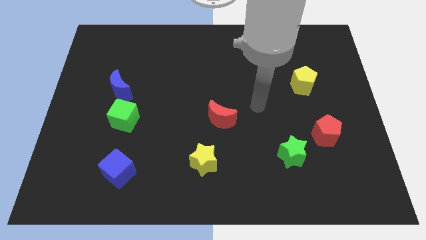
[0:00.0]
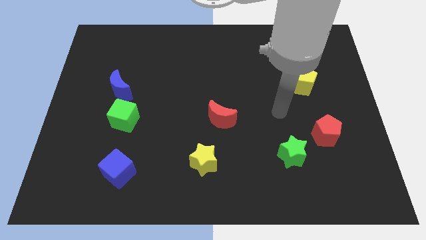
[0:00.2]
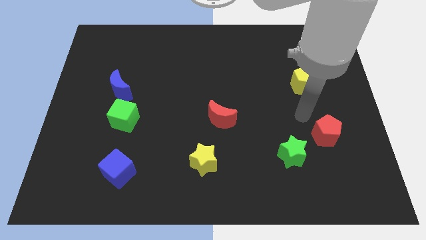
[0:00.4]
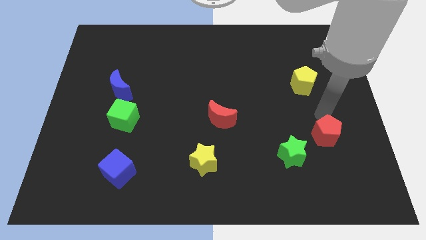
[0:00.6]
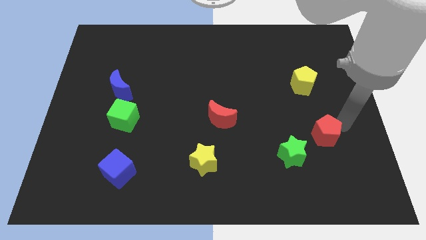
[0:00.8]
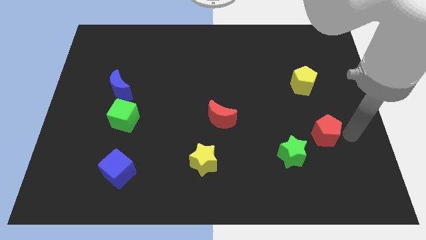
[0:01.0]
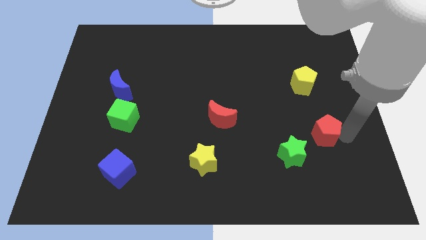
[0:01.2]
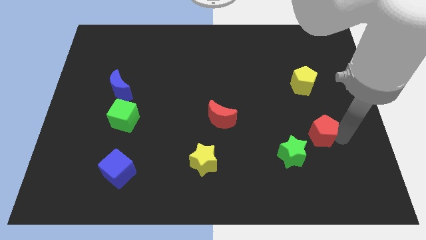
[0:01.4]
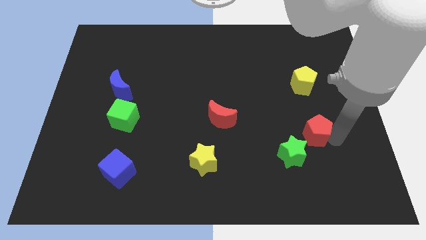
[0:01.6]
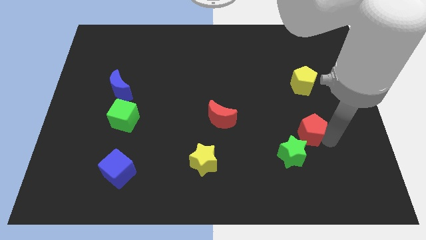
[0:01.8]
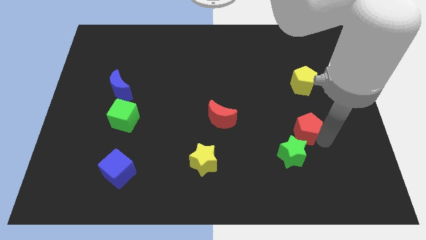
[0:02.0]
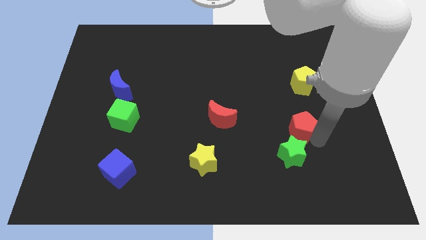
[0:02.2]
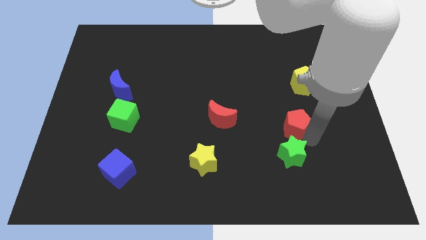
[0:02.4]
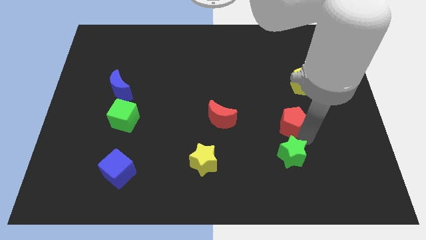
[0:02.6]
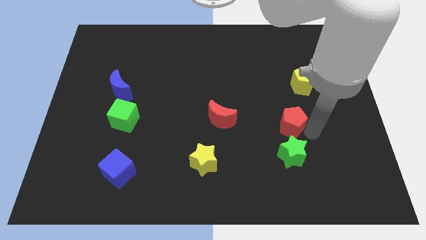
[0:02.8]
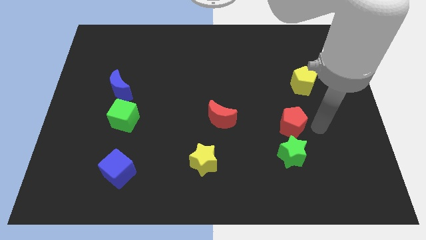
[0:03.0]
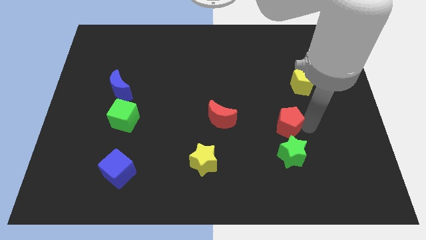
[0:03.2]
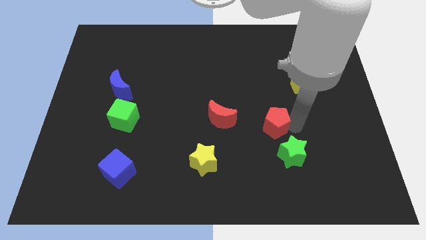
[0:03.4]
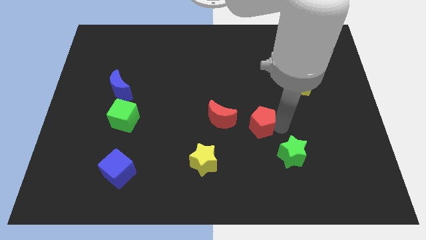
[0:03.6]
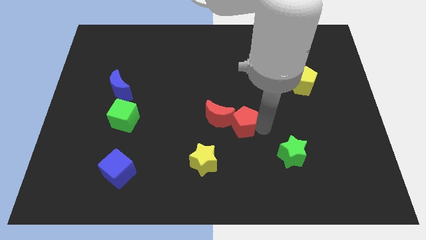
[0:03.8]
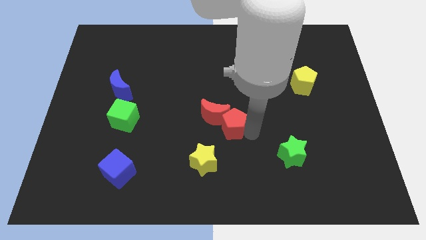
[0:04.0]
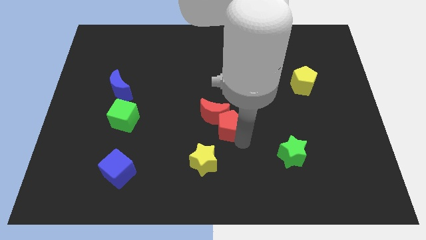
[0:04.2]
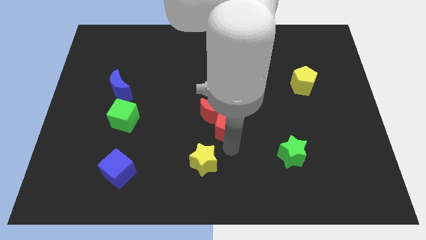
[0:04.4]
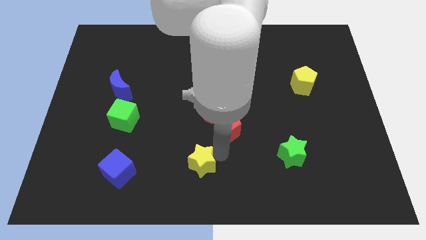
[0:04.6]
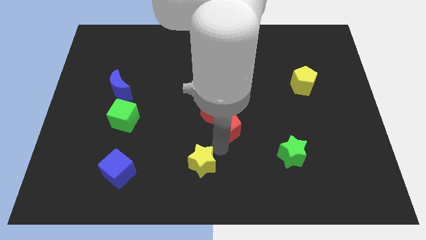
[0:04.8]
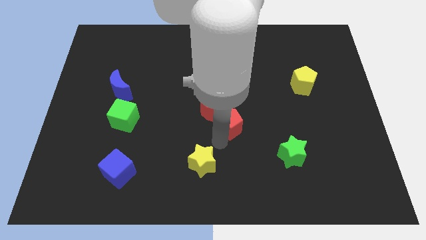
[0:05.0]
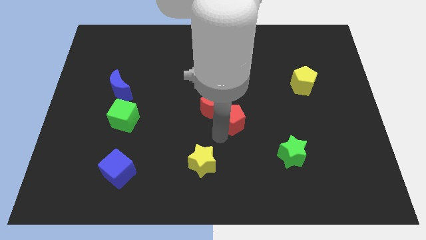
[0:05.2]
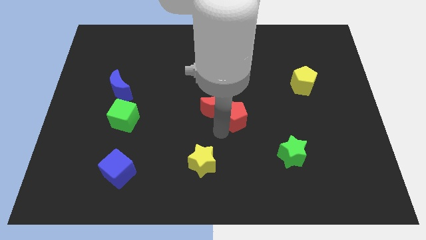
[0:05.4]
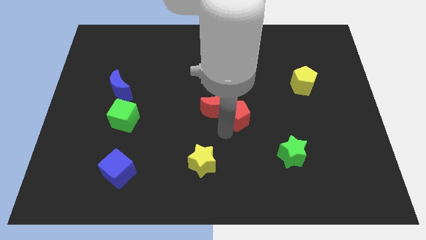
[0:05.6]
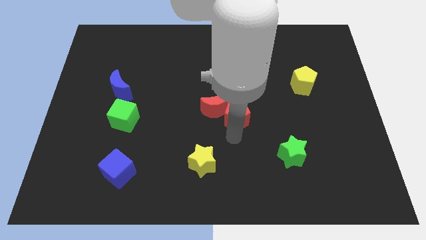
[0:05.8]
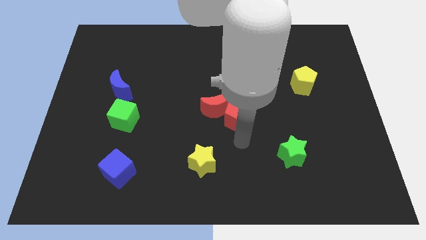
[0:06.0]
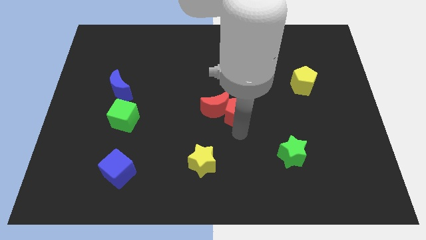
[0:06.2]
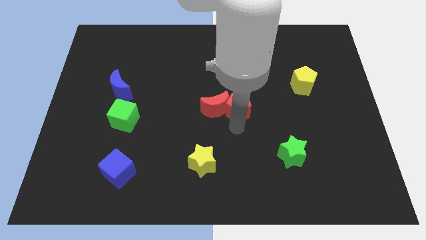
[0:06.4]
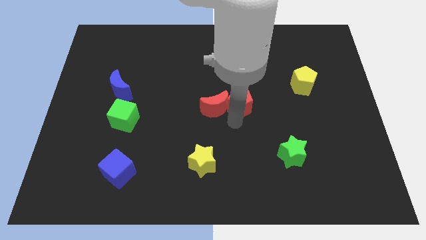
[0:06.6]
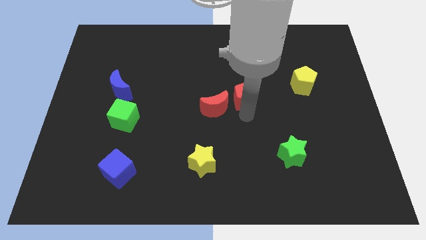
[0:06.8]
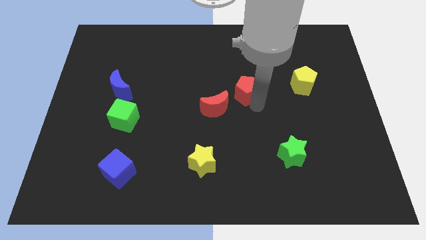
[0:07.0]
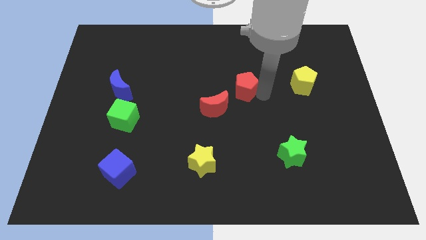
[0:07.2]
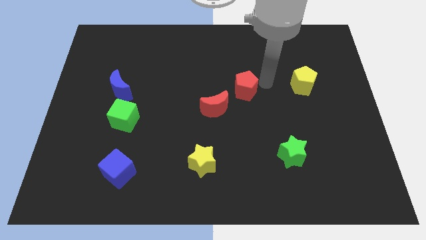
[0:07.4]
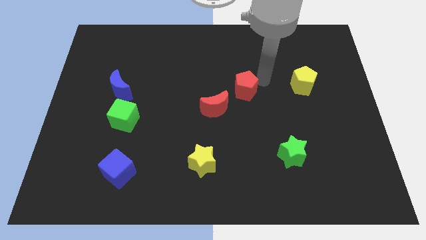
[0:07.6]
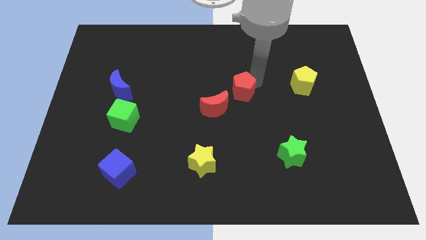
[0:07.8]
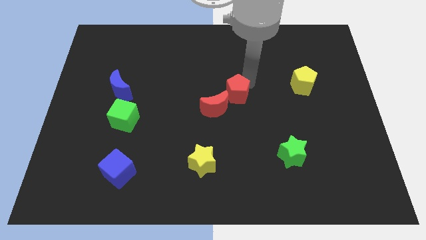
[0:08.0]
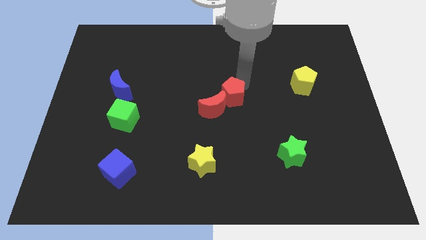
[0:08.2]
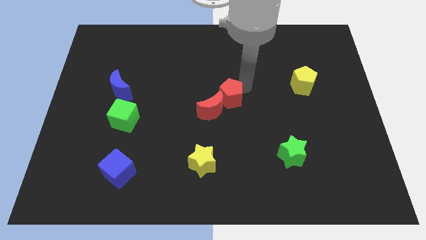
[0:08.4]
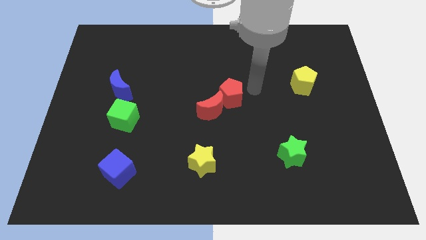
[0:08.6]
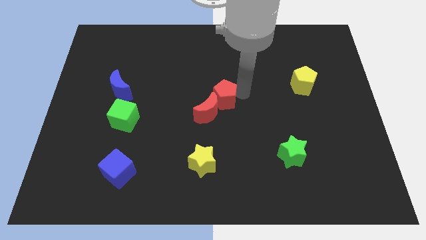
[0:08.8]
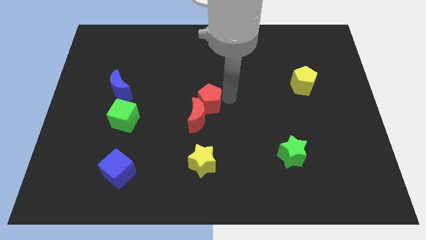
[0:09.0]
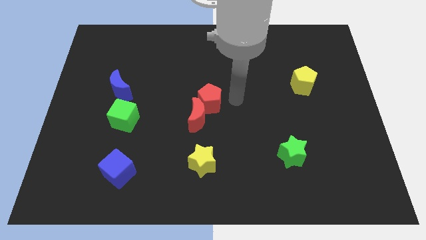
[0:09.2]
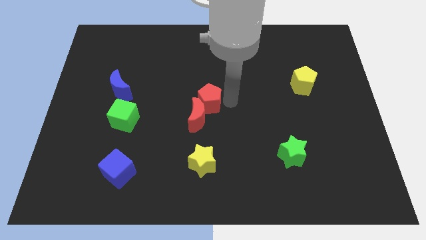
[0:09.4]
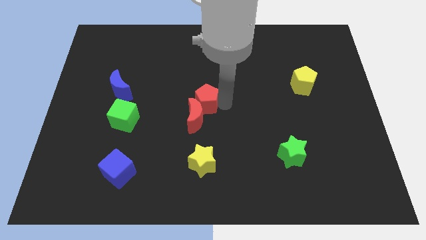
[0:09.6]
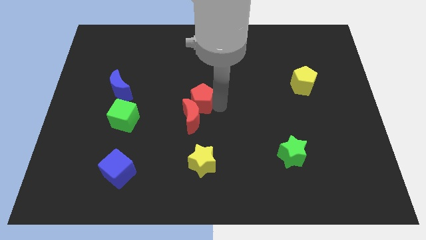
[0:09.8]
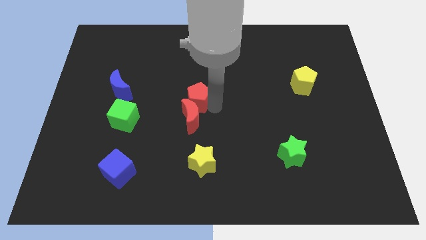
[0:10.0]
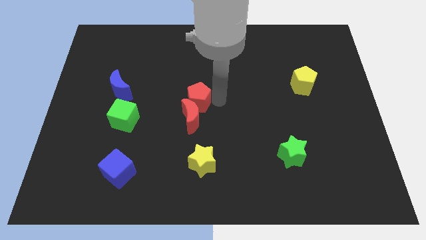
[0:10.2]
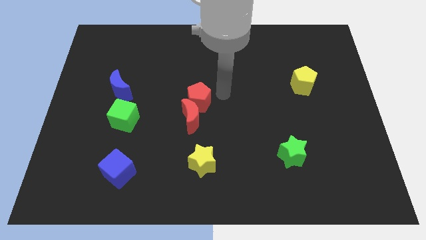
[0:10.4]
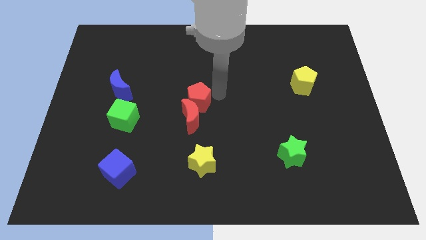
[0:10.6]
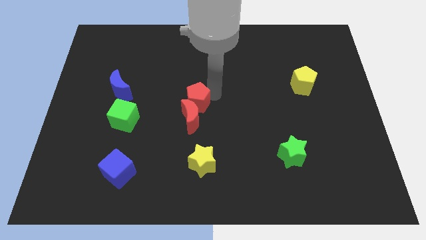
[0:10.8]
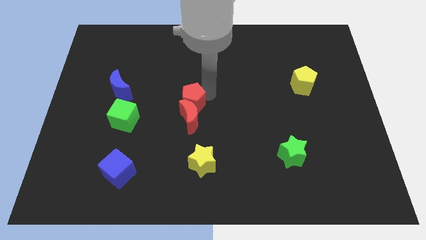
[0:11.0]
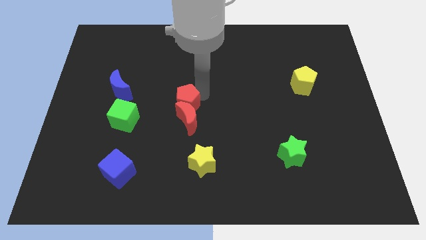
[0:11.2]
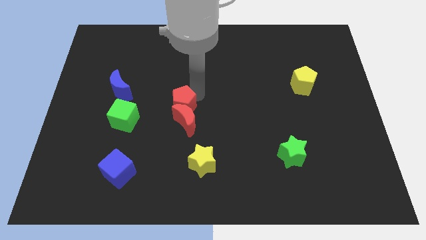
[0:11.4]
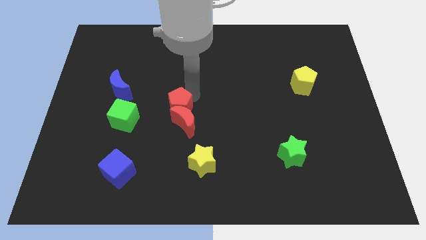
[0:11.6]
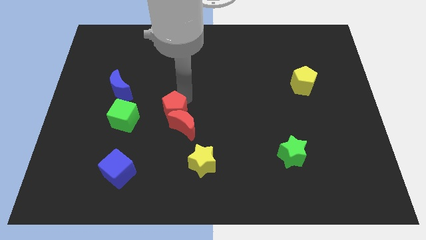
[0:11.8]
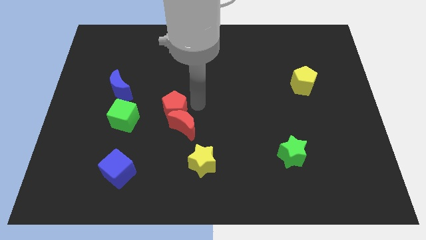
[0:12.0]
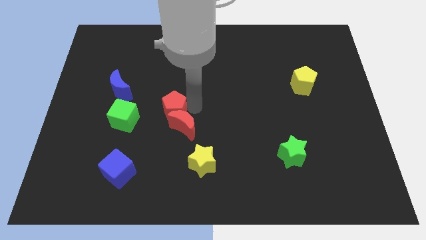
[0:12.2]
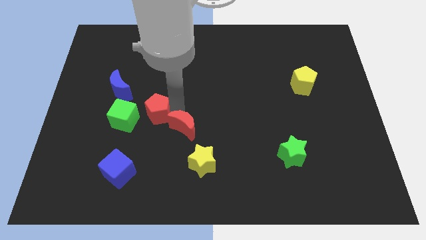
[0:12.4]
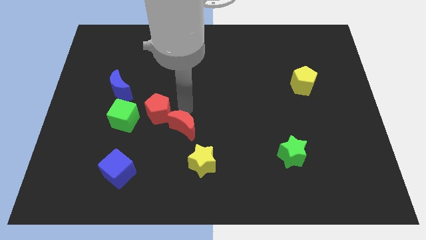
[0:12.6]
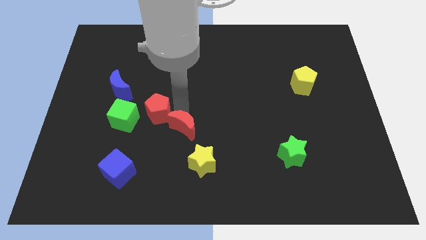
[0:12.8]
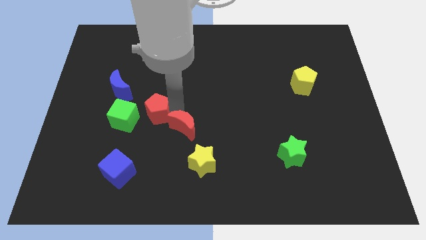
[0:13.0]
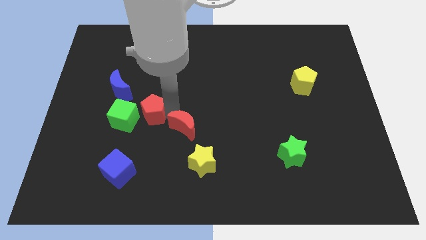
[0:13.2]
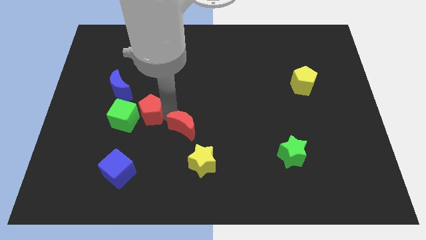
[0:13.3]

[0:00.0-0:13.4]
push the red pentagon close to the green cube

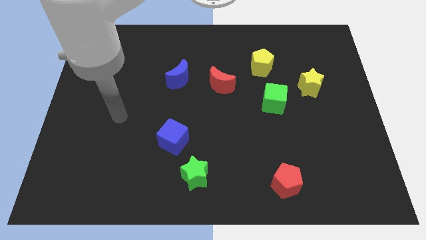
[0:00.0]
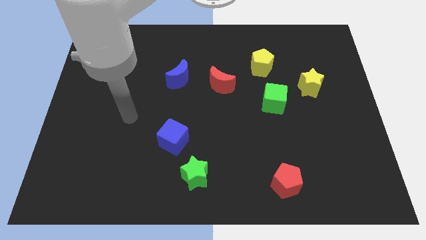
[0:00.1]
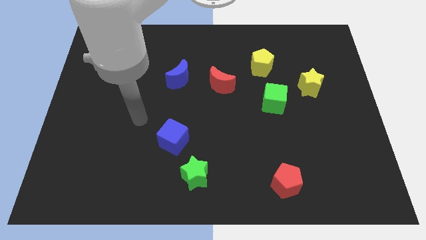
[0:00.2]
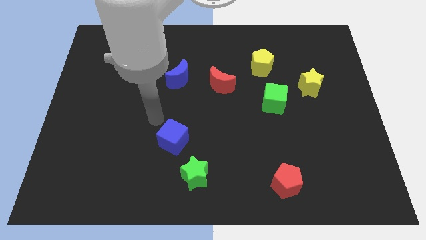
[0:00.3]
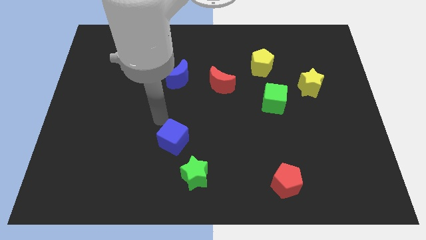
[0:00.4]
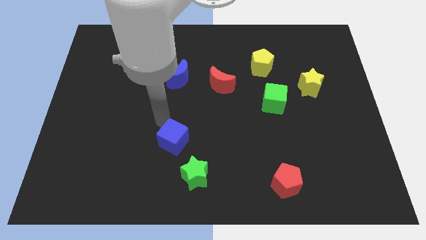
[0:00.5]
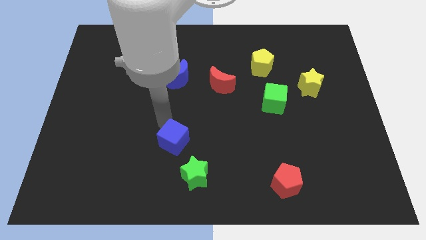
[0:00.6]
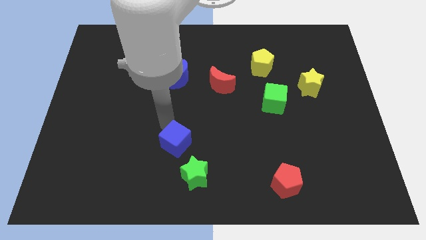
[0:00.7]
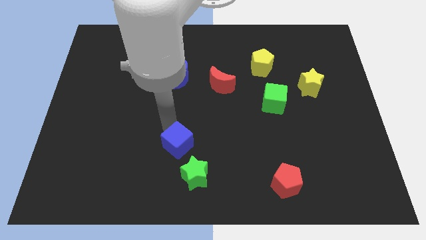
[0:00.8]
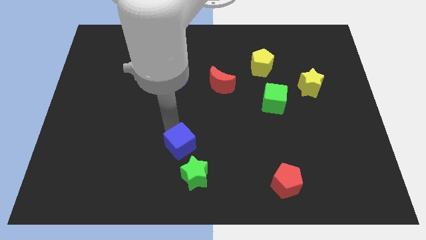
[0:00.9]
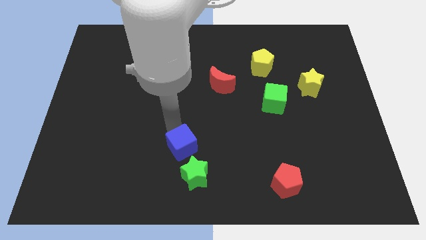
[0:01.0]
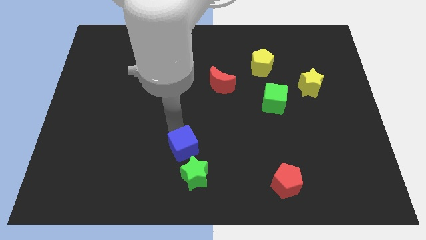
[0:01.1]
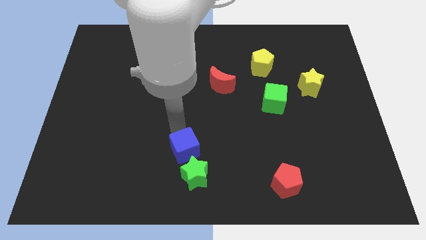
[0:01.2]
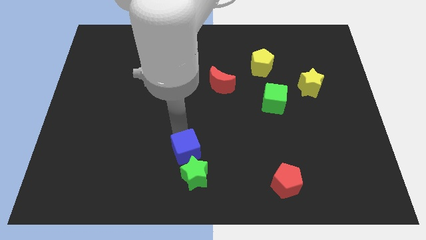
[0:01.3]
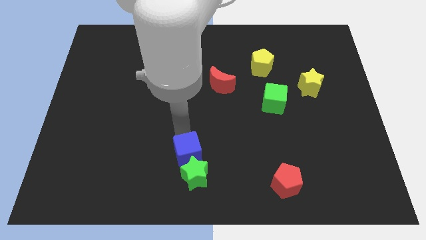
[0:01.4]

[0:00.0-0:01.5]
put the blue cube close to the green star
